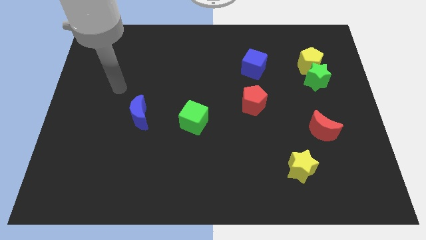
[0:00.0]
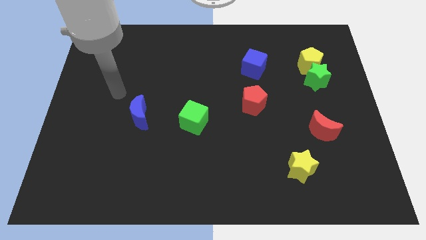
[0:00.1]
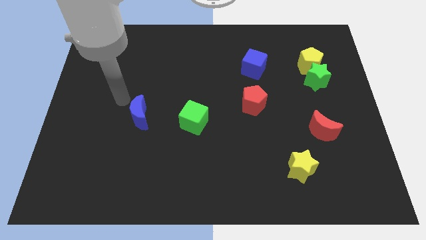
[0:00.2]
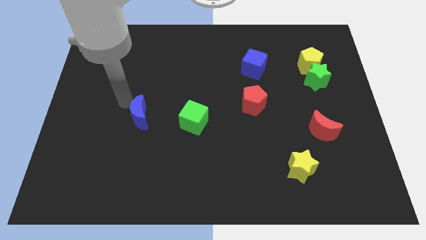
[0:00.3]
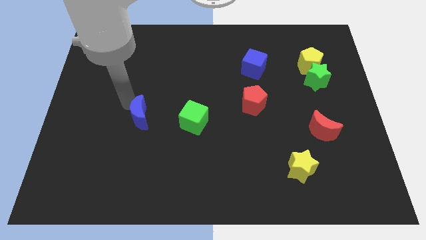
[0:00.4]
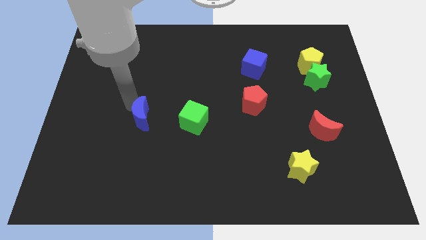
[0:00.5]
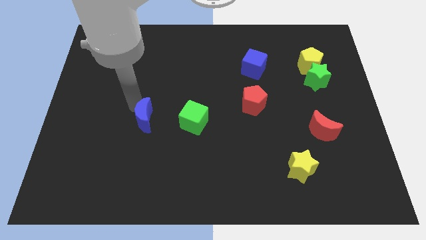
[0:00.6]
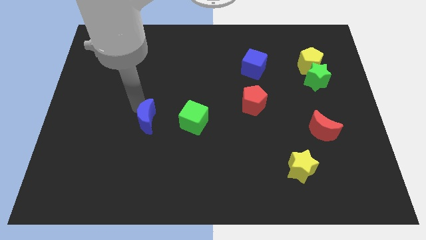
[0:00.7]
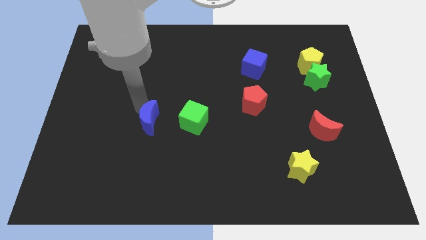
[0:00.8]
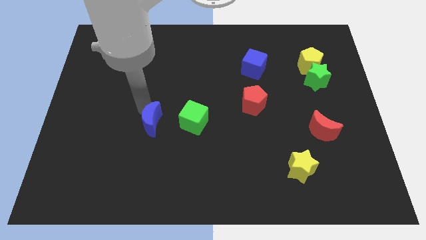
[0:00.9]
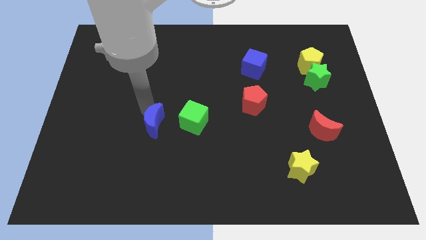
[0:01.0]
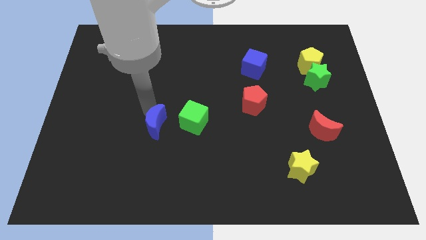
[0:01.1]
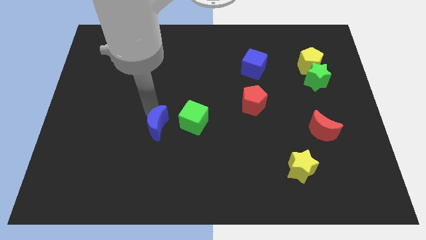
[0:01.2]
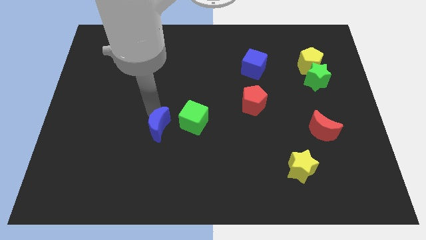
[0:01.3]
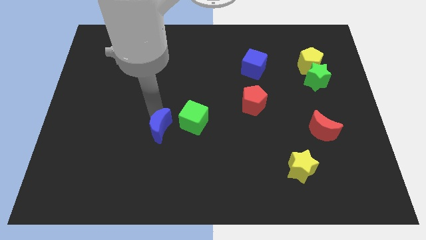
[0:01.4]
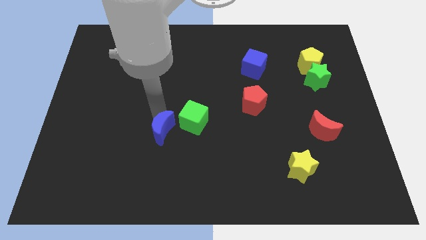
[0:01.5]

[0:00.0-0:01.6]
push the blue moon downwards and to the right a little bit

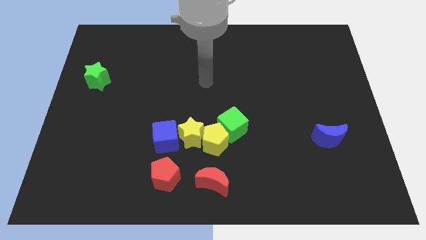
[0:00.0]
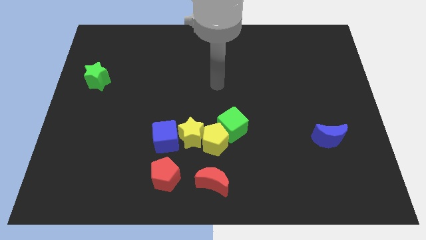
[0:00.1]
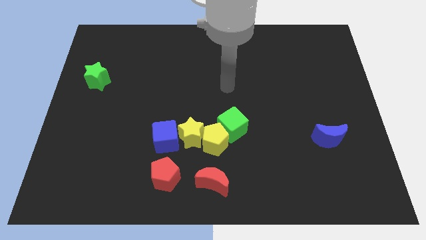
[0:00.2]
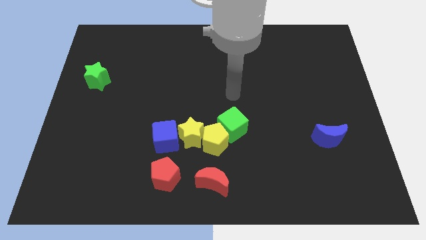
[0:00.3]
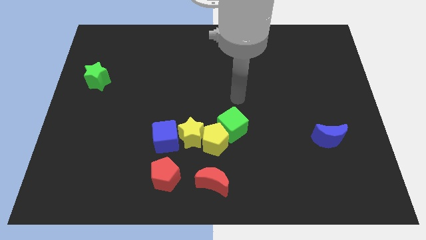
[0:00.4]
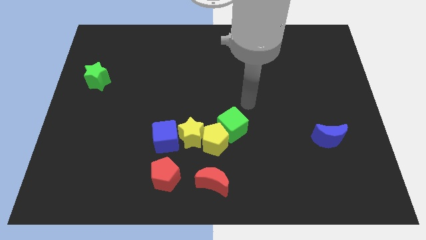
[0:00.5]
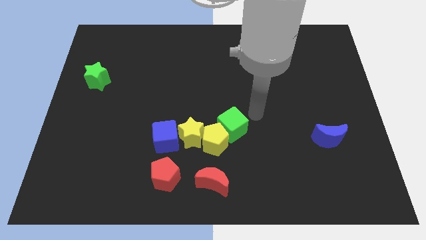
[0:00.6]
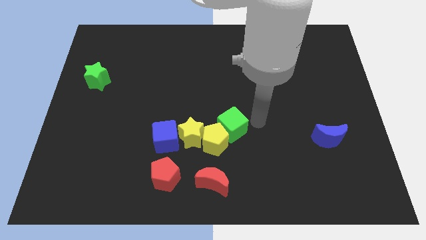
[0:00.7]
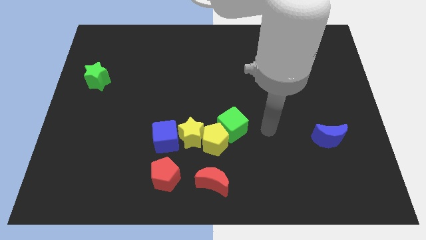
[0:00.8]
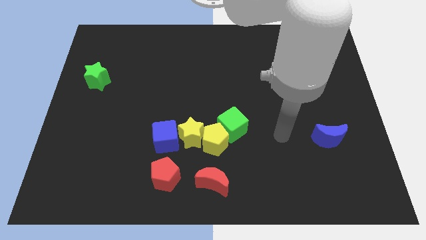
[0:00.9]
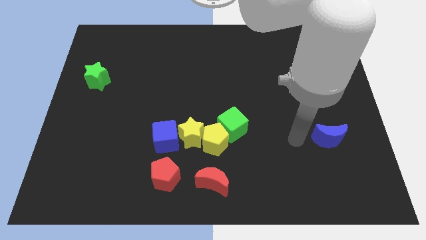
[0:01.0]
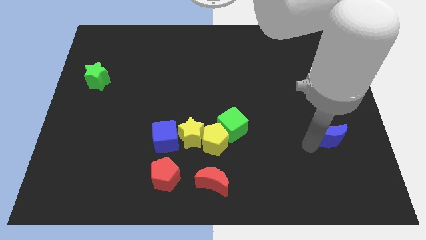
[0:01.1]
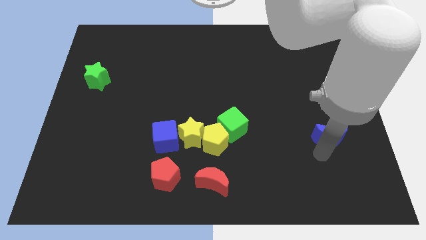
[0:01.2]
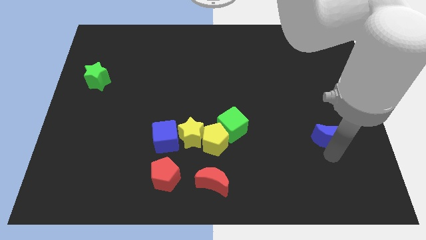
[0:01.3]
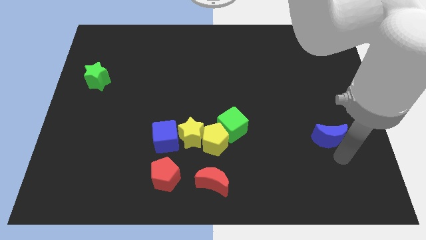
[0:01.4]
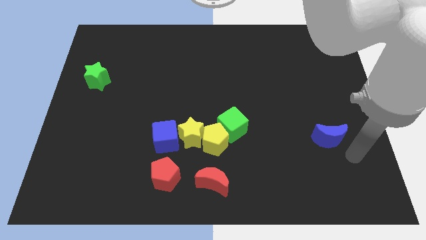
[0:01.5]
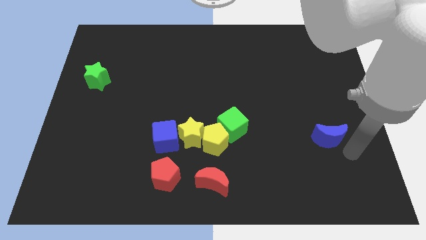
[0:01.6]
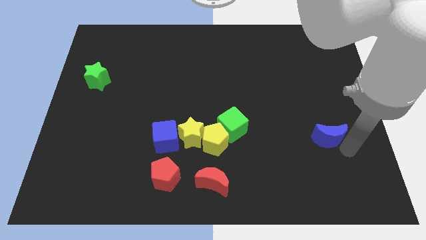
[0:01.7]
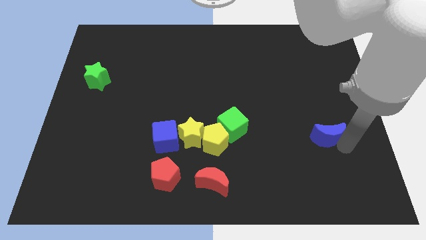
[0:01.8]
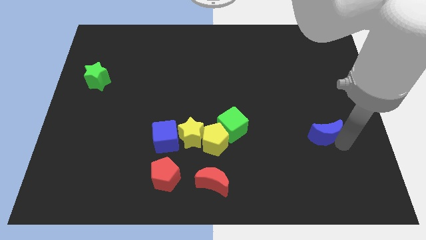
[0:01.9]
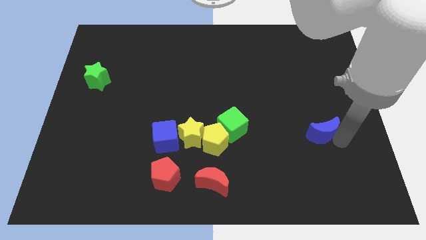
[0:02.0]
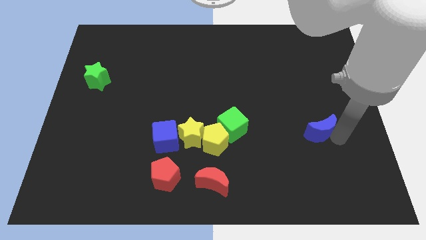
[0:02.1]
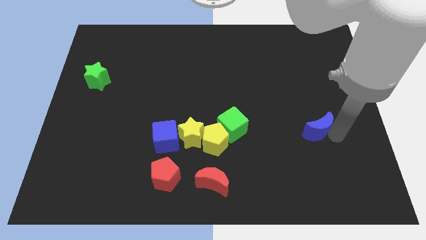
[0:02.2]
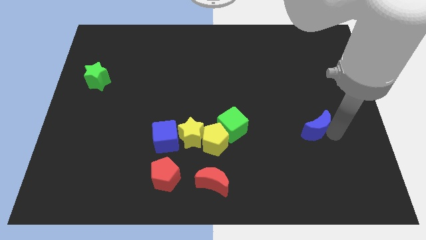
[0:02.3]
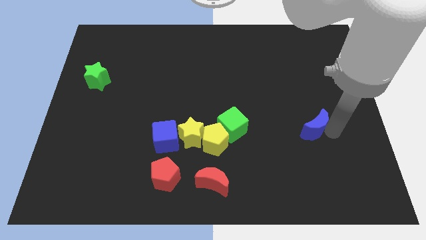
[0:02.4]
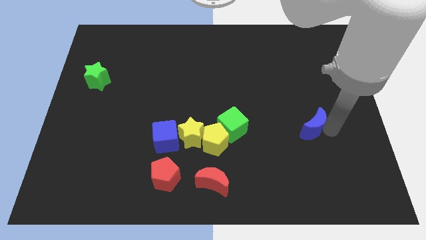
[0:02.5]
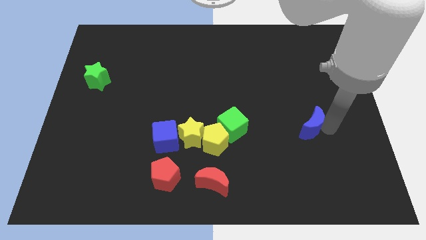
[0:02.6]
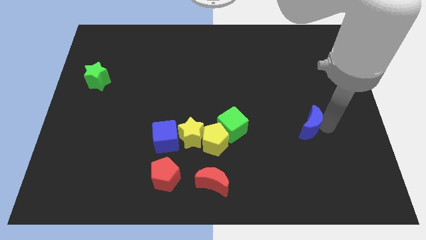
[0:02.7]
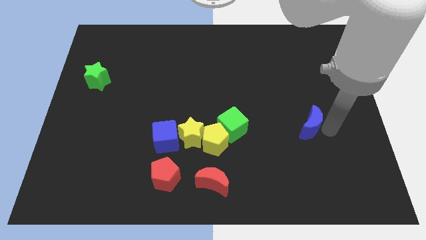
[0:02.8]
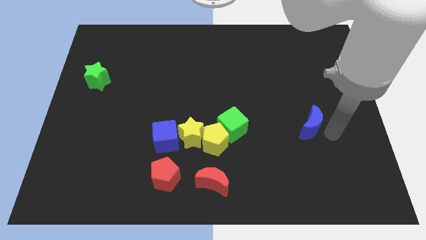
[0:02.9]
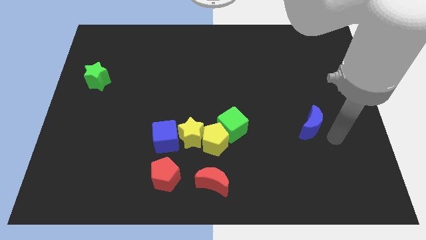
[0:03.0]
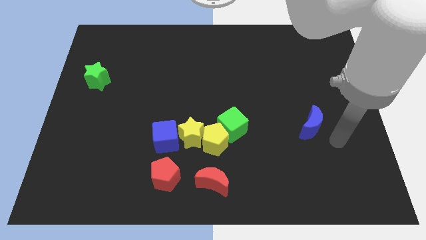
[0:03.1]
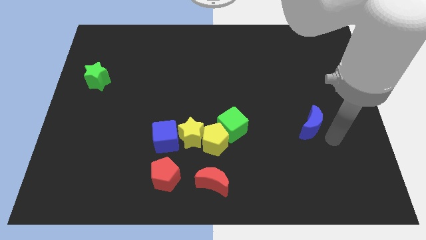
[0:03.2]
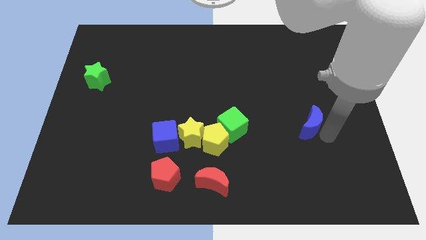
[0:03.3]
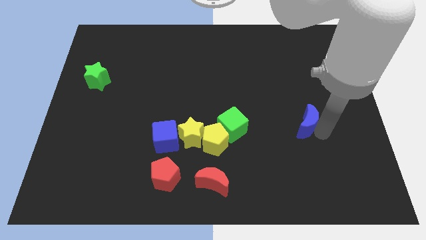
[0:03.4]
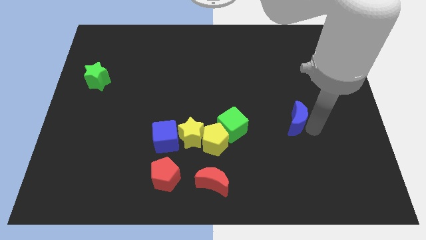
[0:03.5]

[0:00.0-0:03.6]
slide the blue moon up and then left slightly

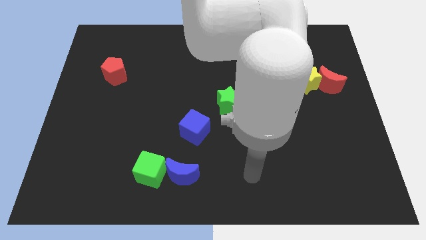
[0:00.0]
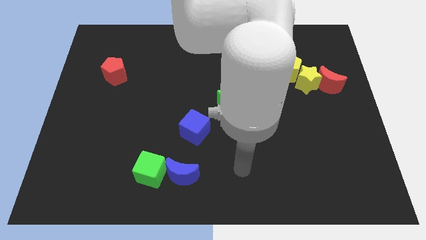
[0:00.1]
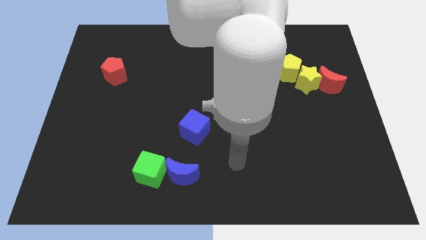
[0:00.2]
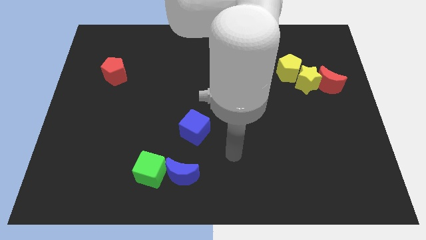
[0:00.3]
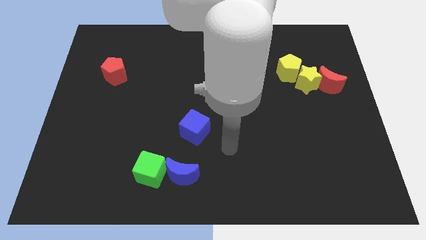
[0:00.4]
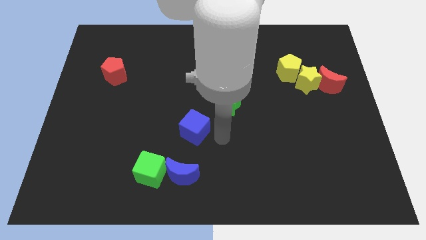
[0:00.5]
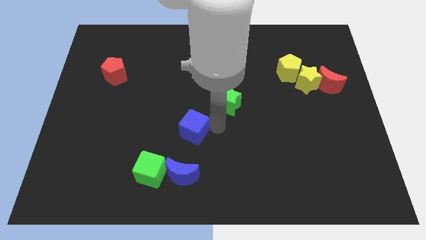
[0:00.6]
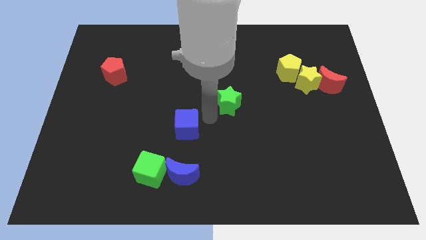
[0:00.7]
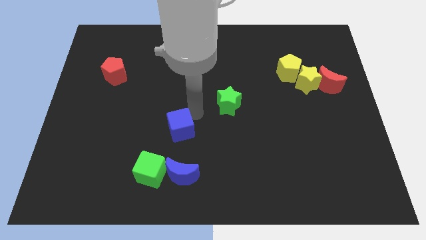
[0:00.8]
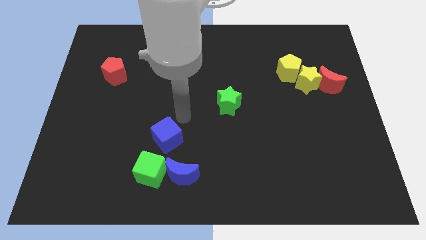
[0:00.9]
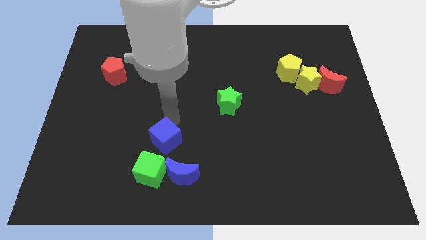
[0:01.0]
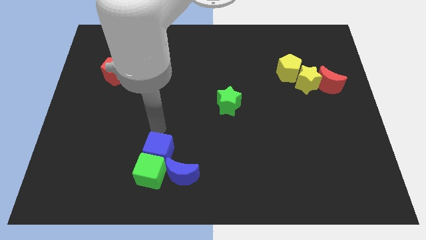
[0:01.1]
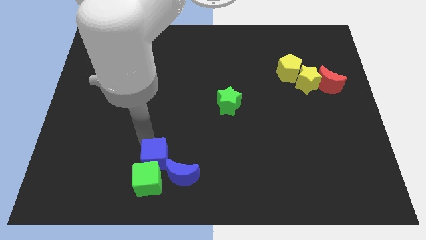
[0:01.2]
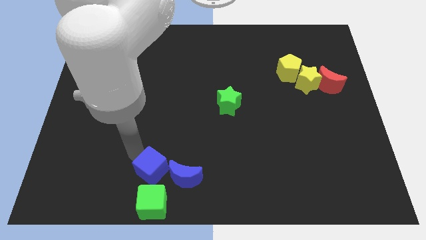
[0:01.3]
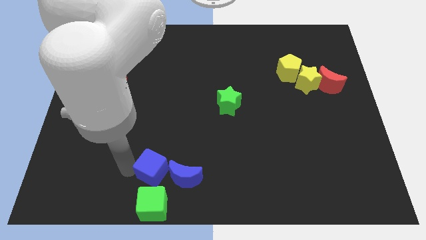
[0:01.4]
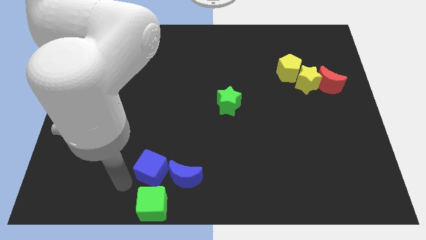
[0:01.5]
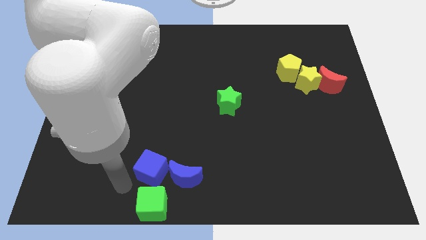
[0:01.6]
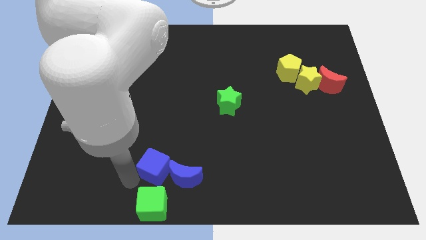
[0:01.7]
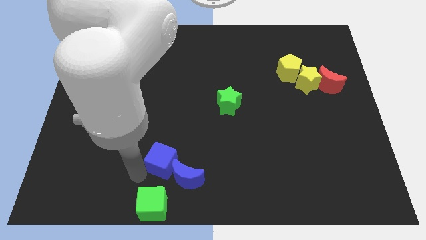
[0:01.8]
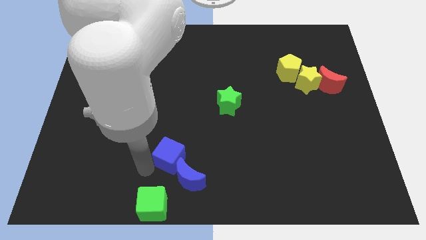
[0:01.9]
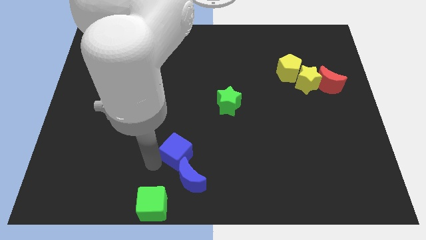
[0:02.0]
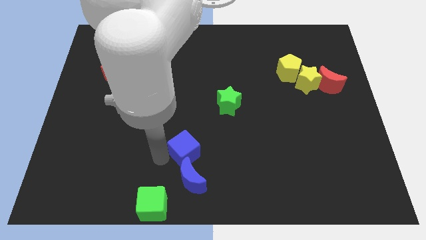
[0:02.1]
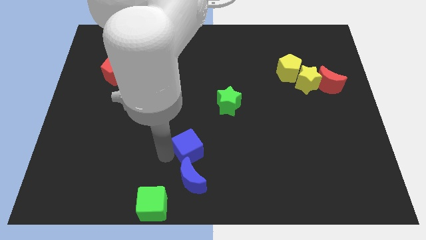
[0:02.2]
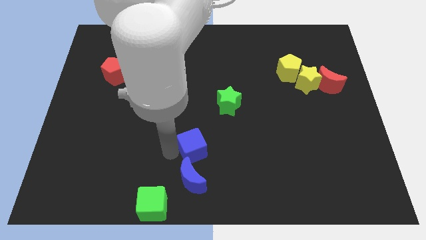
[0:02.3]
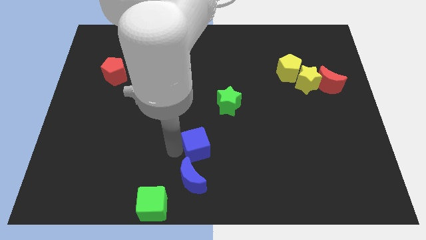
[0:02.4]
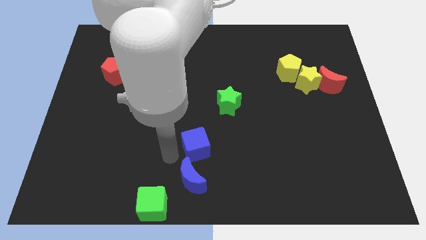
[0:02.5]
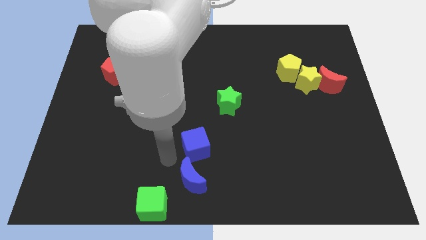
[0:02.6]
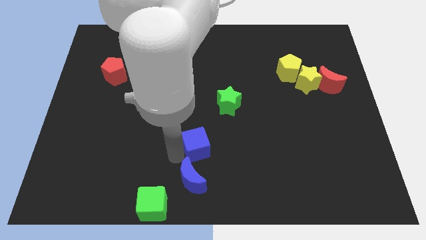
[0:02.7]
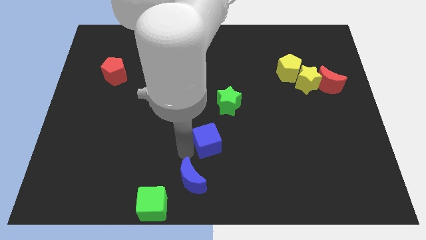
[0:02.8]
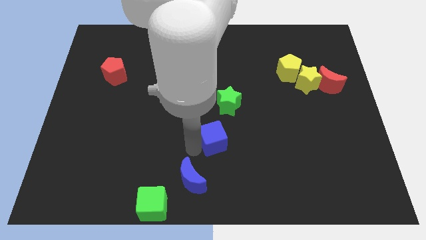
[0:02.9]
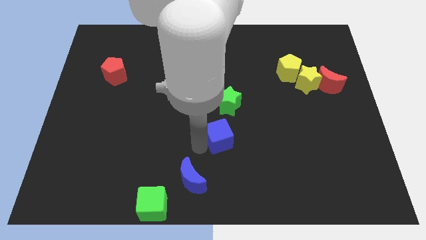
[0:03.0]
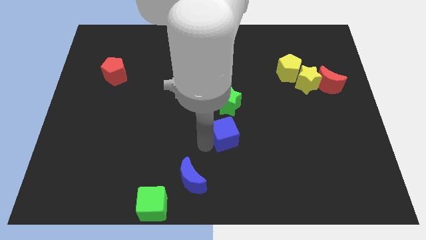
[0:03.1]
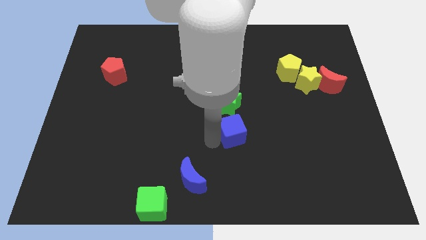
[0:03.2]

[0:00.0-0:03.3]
slide the blue cube a little to the right
